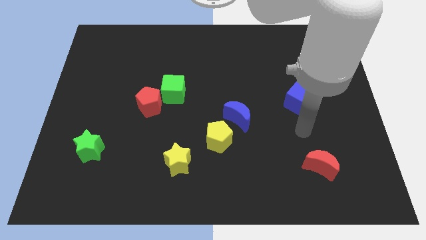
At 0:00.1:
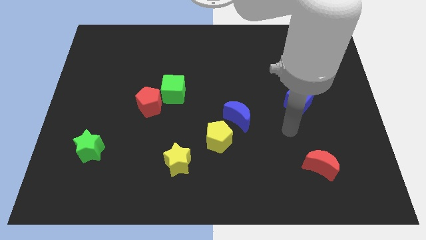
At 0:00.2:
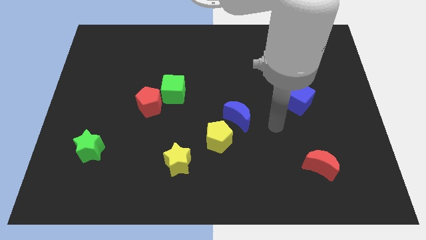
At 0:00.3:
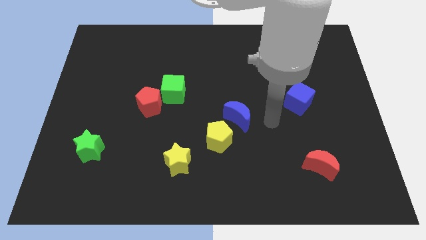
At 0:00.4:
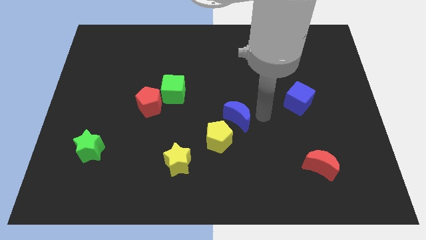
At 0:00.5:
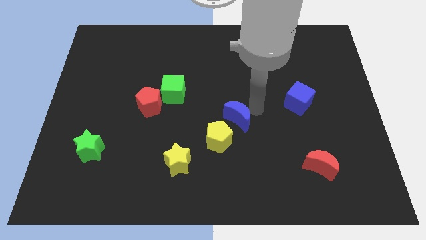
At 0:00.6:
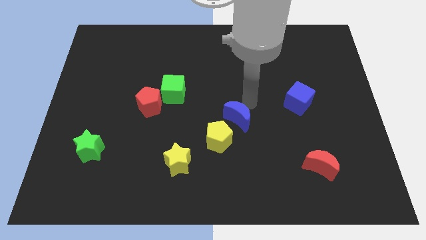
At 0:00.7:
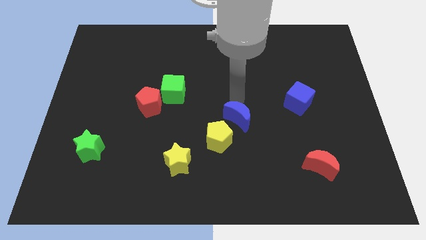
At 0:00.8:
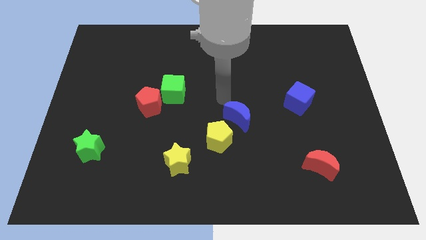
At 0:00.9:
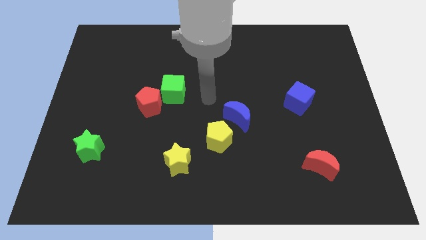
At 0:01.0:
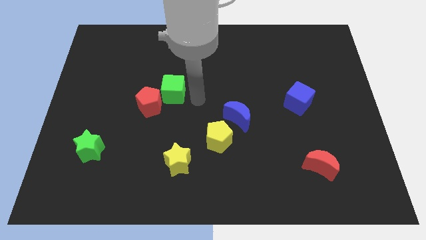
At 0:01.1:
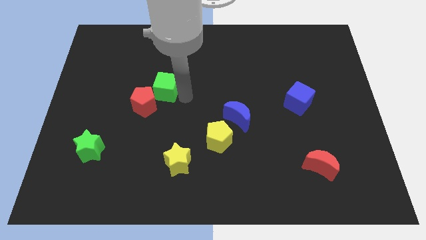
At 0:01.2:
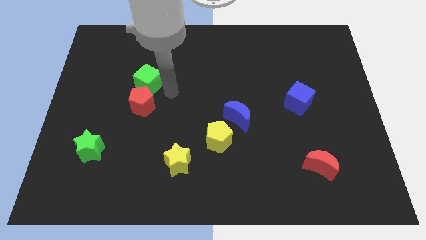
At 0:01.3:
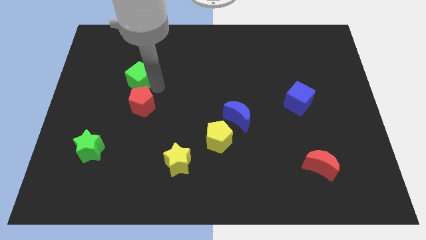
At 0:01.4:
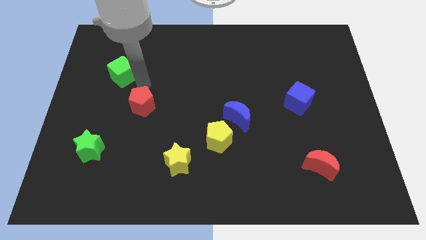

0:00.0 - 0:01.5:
separate the red pentagon from the green cube

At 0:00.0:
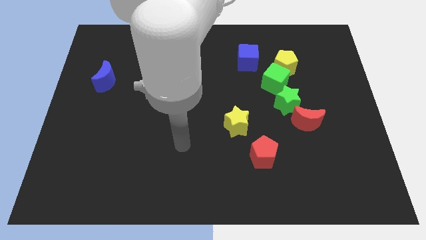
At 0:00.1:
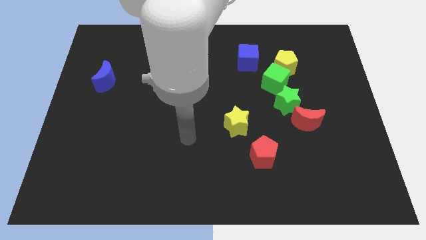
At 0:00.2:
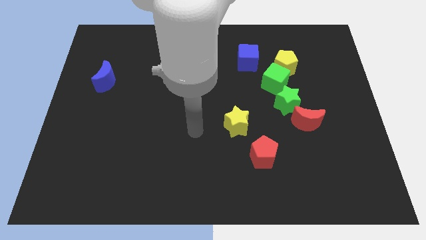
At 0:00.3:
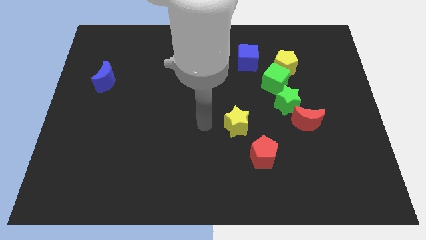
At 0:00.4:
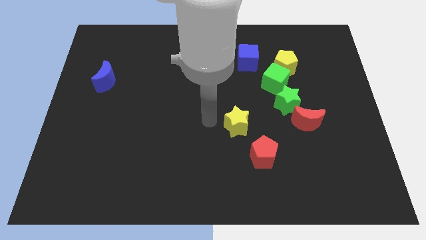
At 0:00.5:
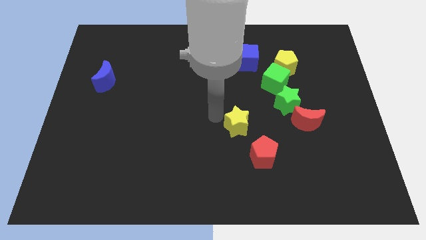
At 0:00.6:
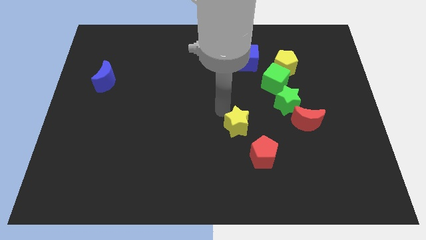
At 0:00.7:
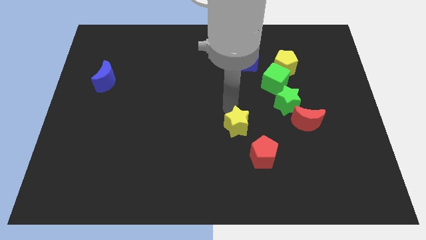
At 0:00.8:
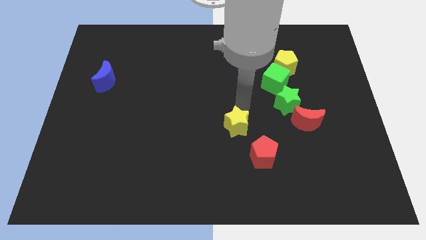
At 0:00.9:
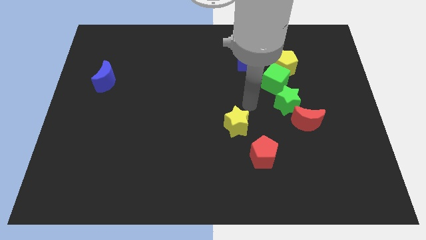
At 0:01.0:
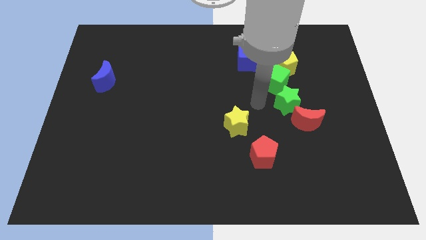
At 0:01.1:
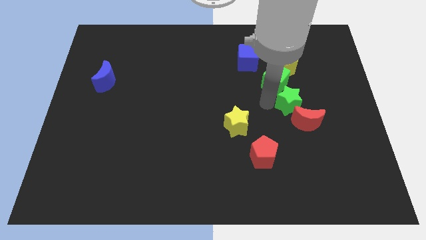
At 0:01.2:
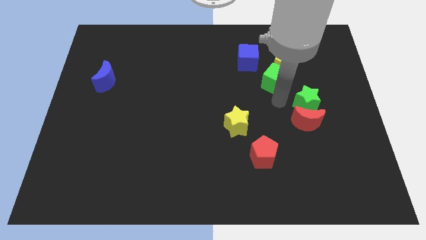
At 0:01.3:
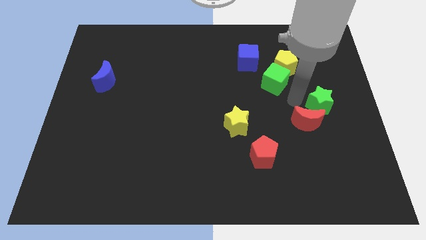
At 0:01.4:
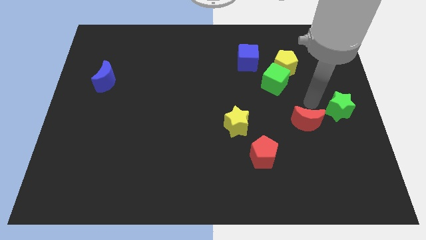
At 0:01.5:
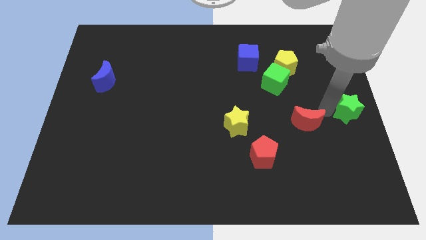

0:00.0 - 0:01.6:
move the red moon away from the green star

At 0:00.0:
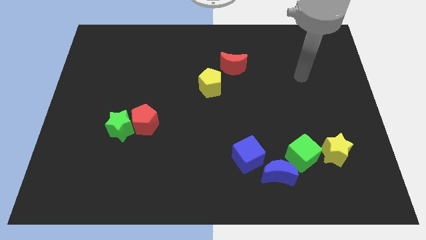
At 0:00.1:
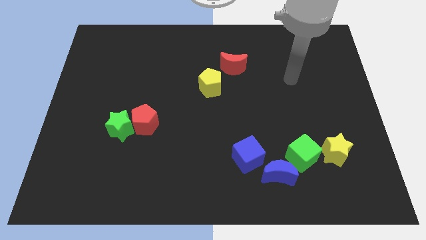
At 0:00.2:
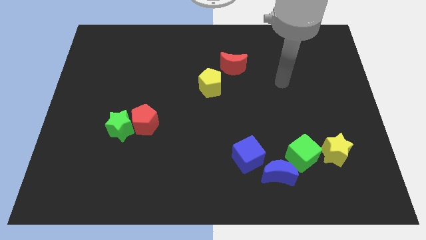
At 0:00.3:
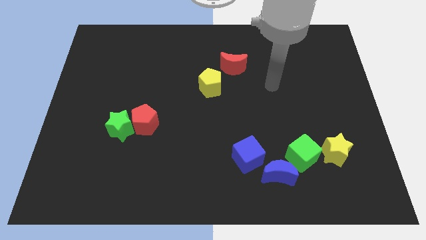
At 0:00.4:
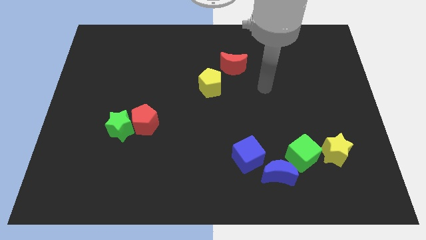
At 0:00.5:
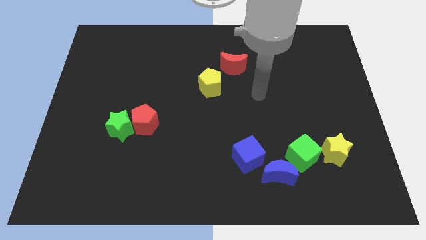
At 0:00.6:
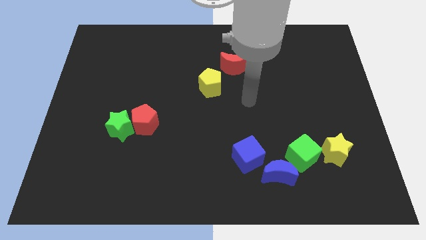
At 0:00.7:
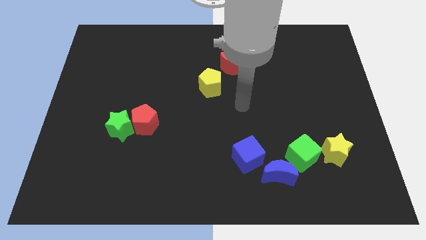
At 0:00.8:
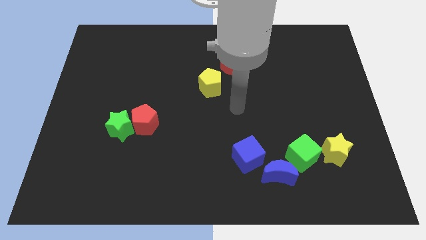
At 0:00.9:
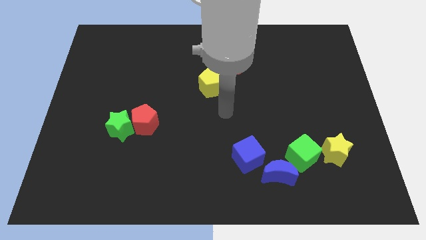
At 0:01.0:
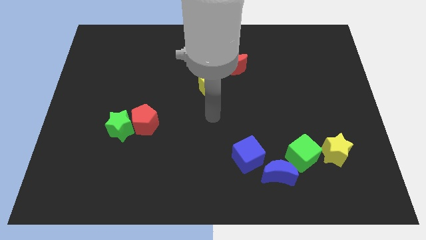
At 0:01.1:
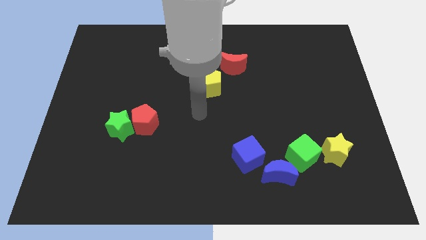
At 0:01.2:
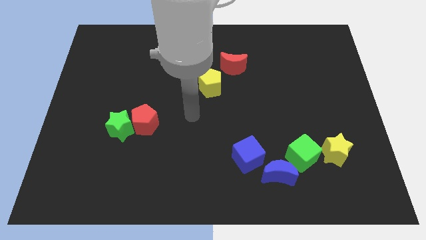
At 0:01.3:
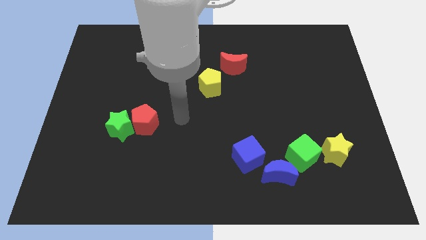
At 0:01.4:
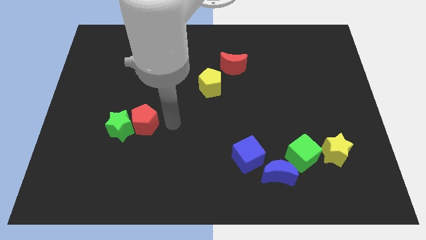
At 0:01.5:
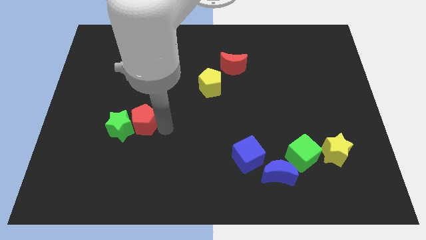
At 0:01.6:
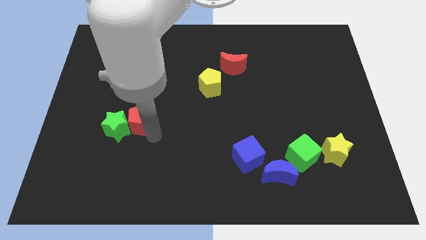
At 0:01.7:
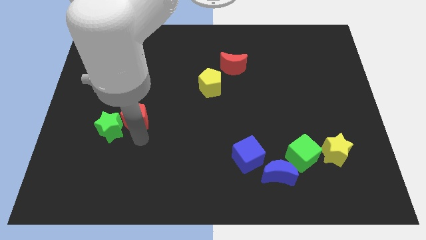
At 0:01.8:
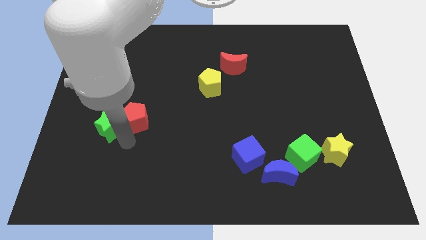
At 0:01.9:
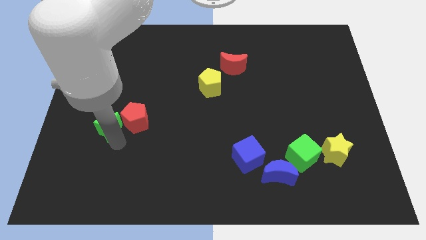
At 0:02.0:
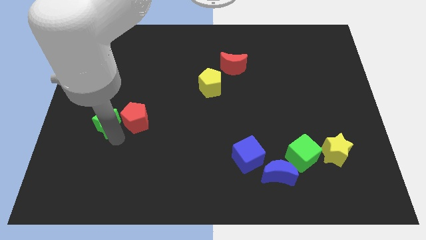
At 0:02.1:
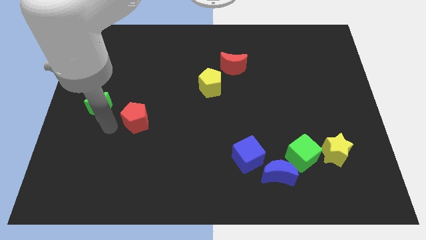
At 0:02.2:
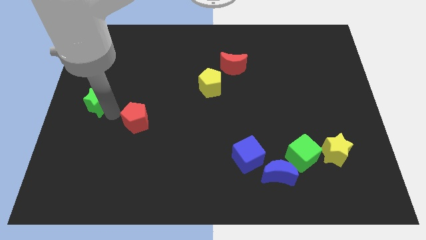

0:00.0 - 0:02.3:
separate the red pentagon from the green star

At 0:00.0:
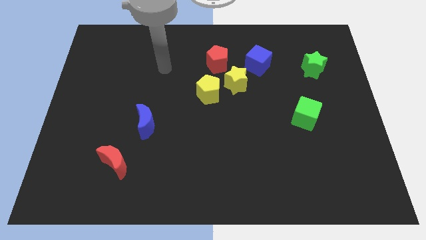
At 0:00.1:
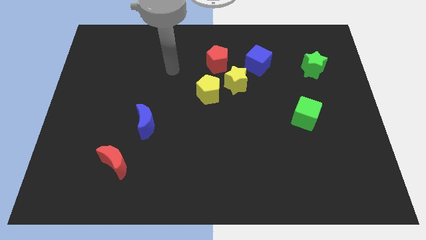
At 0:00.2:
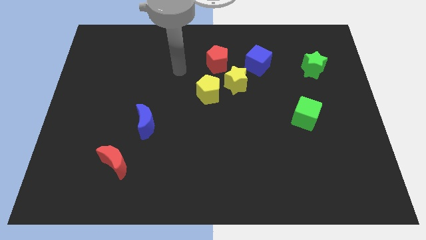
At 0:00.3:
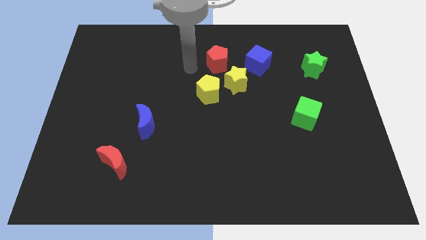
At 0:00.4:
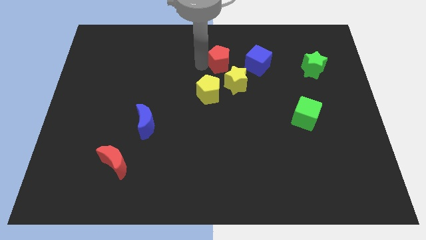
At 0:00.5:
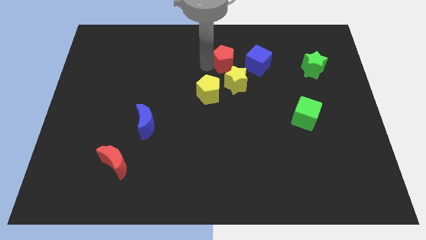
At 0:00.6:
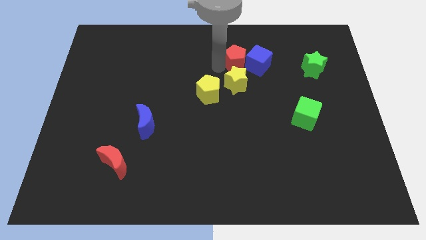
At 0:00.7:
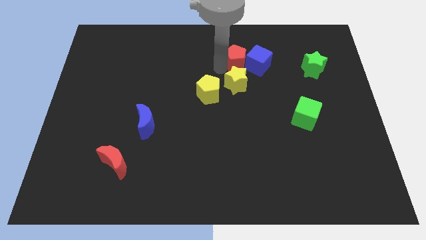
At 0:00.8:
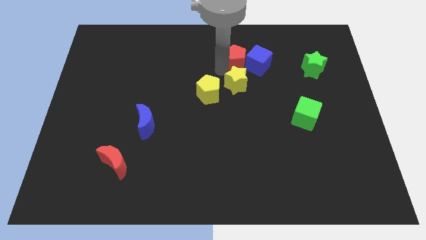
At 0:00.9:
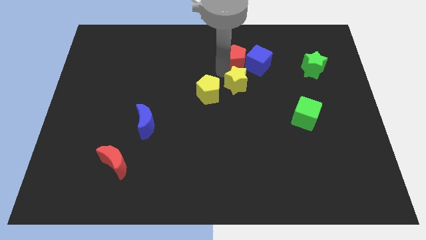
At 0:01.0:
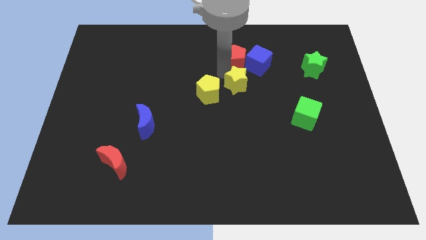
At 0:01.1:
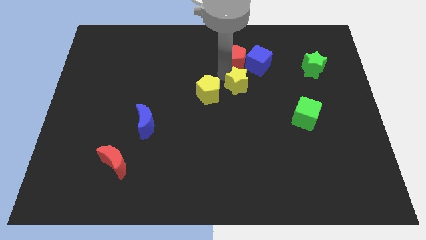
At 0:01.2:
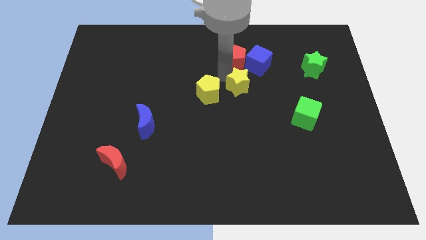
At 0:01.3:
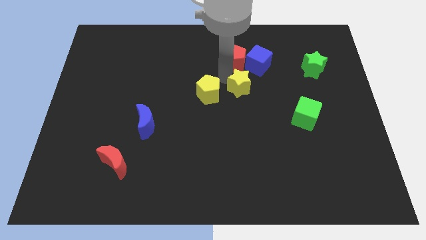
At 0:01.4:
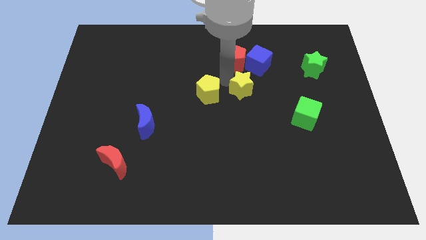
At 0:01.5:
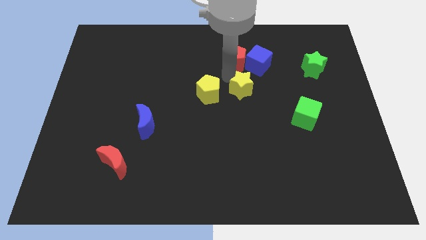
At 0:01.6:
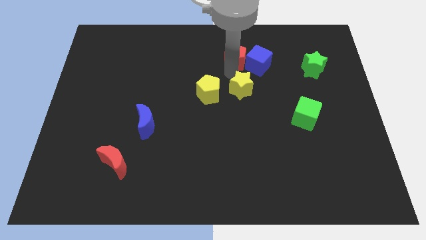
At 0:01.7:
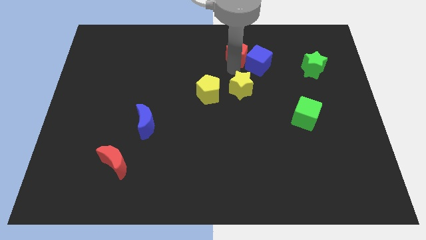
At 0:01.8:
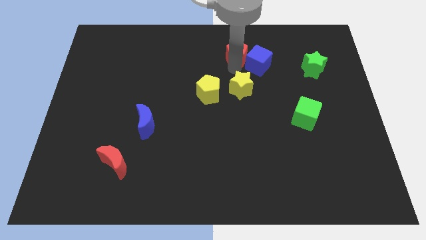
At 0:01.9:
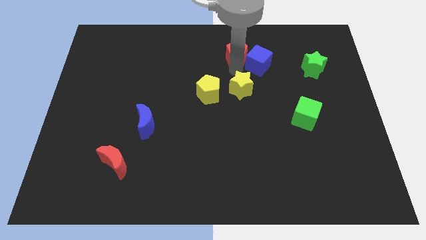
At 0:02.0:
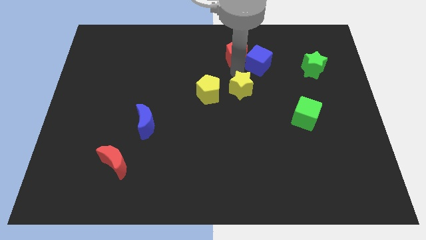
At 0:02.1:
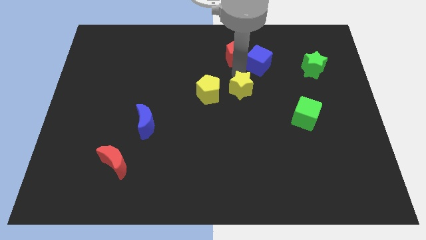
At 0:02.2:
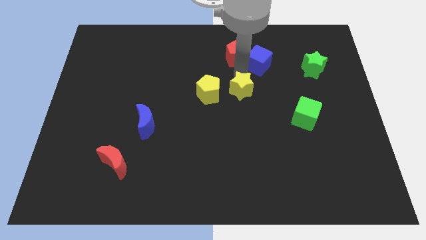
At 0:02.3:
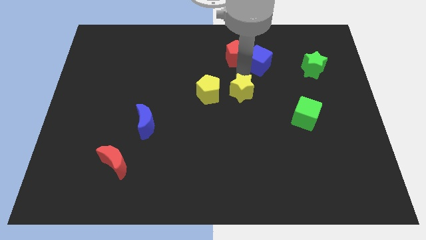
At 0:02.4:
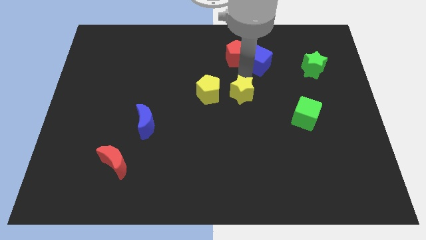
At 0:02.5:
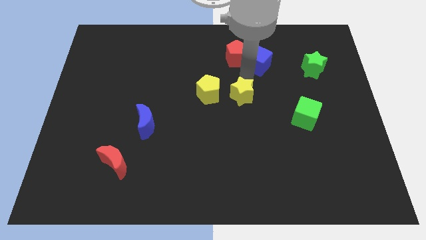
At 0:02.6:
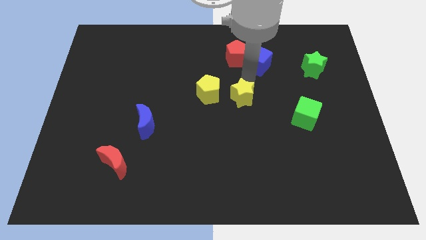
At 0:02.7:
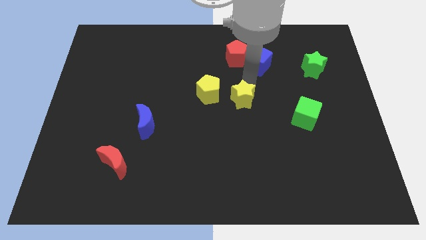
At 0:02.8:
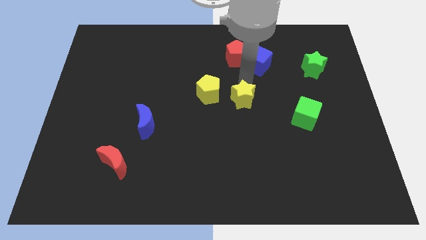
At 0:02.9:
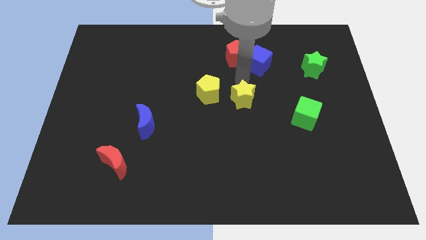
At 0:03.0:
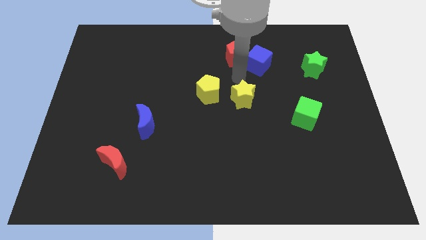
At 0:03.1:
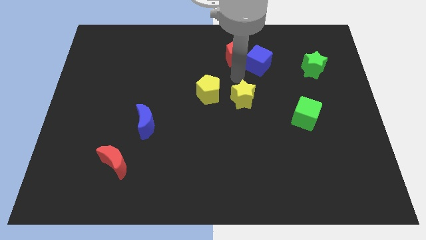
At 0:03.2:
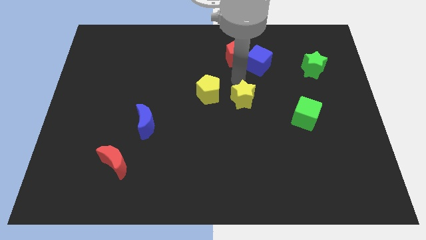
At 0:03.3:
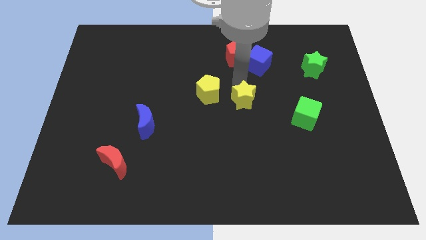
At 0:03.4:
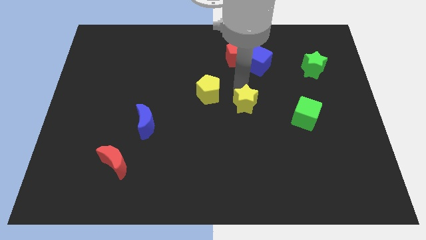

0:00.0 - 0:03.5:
move the yellow star away from the yellow pentagon, red pentagon, and blue cube

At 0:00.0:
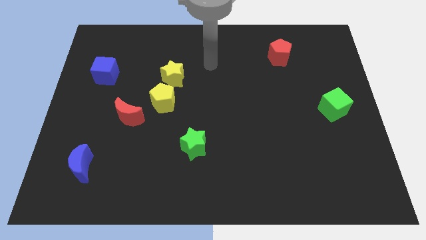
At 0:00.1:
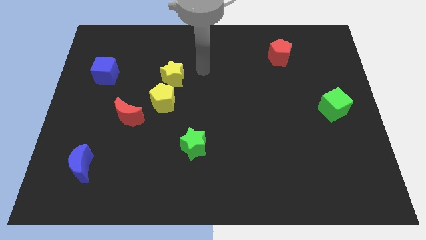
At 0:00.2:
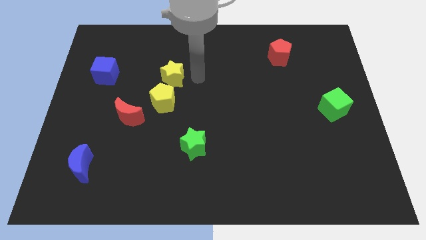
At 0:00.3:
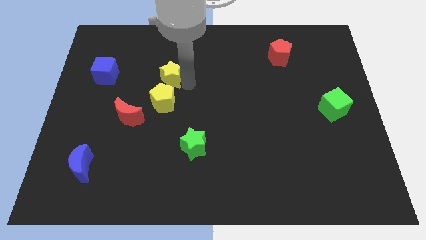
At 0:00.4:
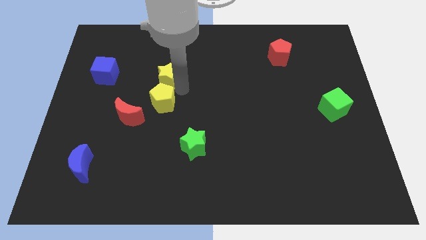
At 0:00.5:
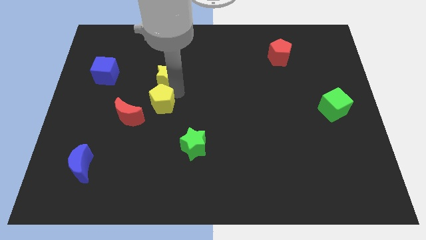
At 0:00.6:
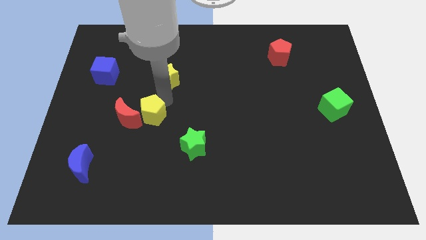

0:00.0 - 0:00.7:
move the yellow star away from the yellow pentagon
